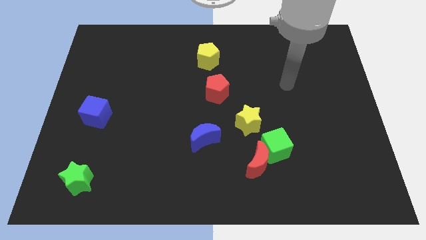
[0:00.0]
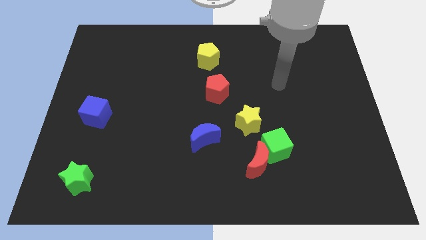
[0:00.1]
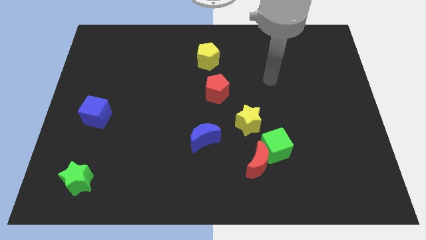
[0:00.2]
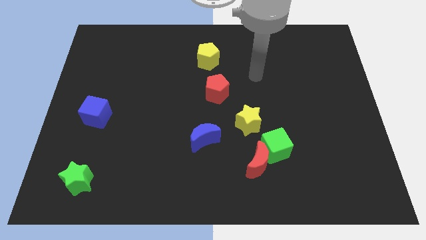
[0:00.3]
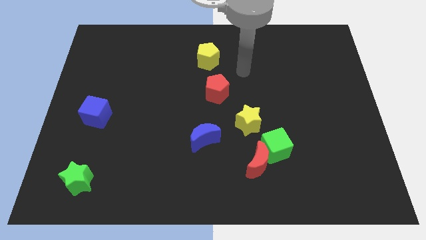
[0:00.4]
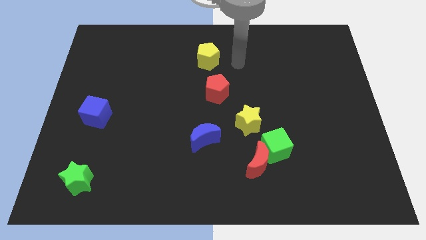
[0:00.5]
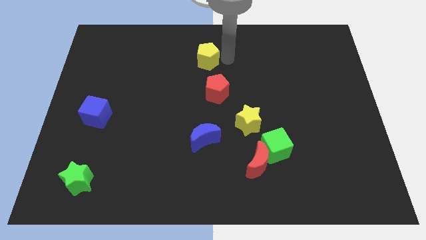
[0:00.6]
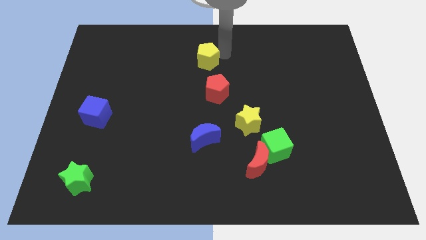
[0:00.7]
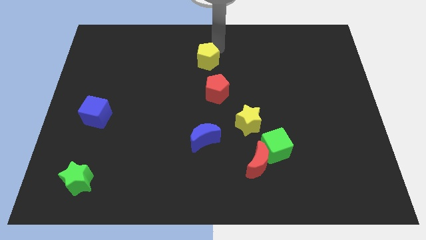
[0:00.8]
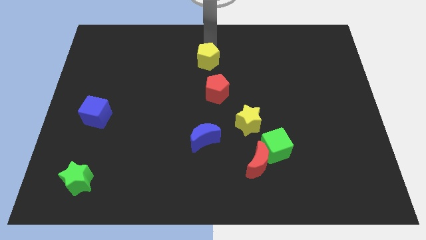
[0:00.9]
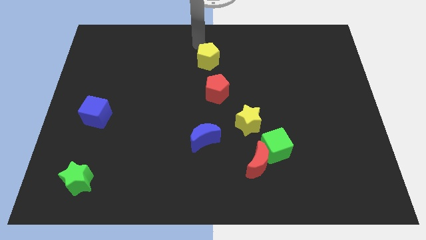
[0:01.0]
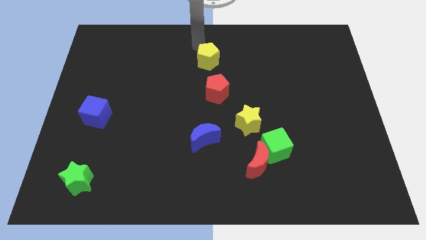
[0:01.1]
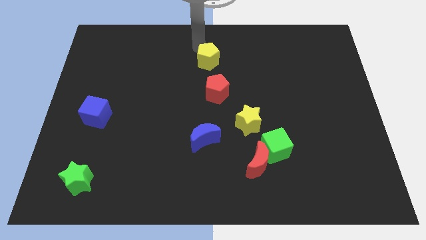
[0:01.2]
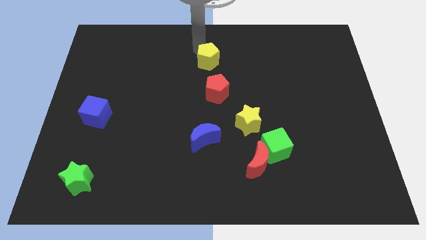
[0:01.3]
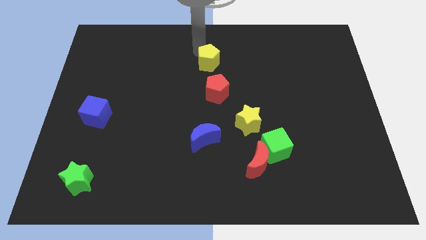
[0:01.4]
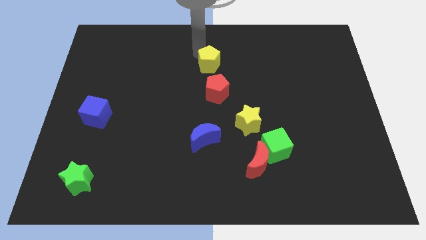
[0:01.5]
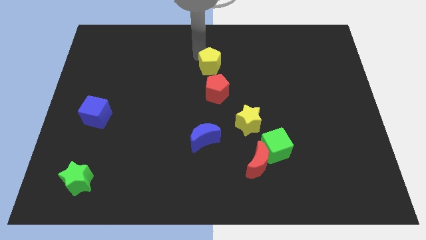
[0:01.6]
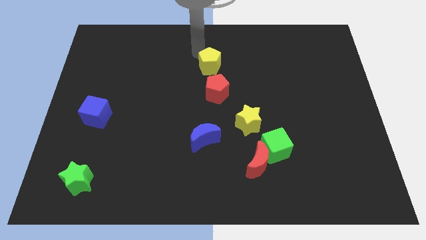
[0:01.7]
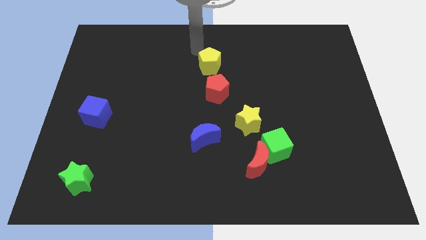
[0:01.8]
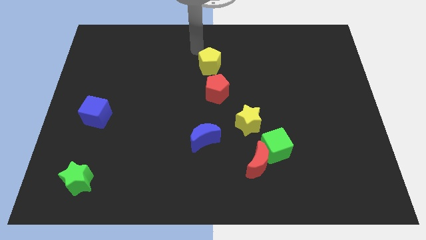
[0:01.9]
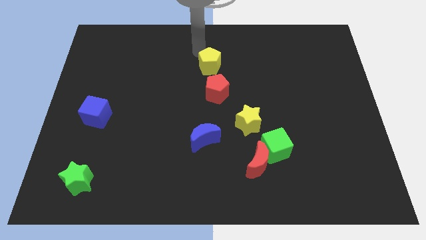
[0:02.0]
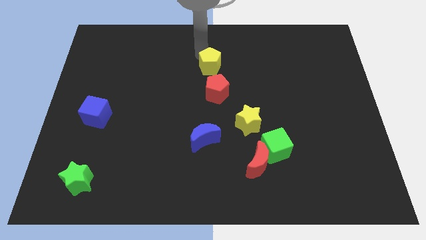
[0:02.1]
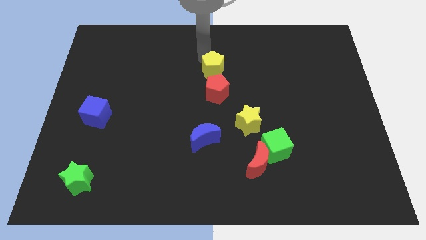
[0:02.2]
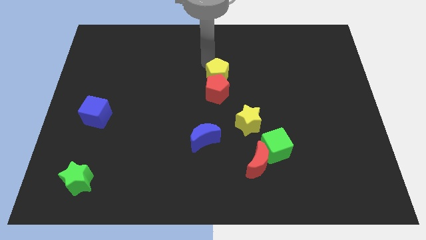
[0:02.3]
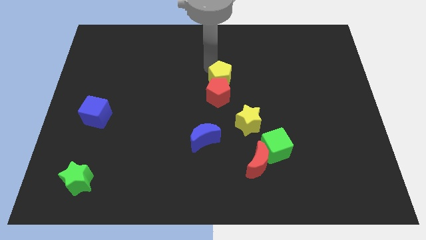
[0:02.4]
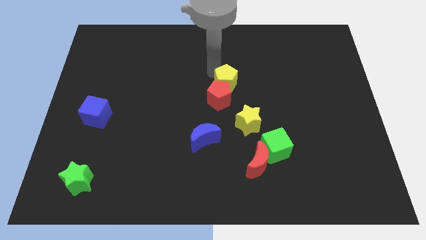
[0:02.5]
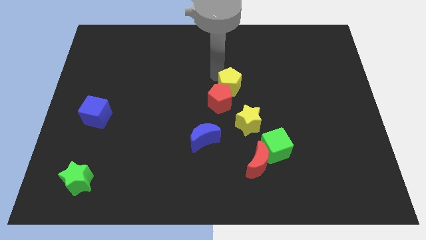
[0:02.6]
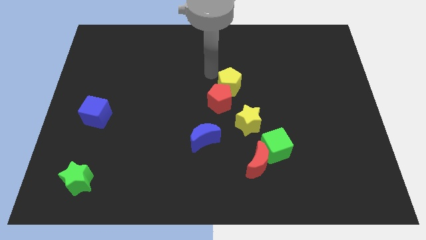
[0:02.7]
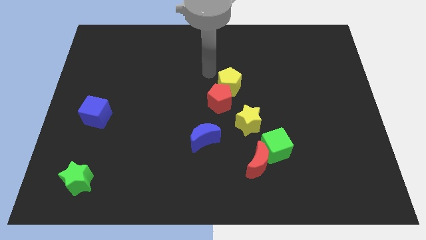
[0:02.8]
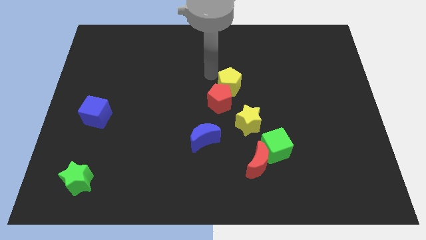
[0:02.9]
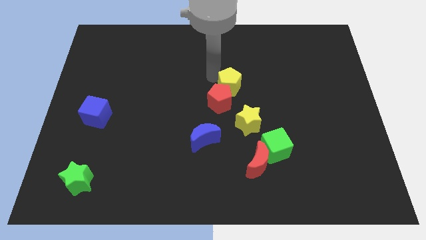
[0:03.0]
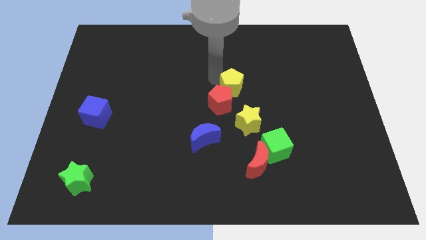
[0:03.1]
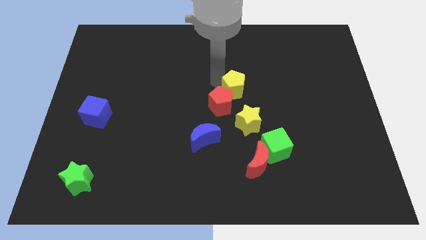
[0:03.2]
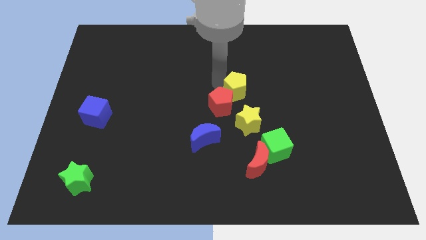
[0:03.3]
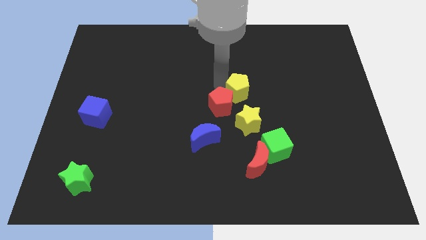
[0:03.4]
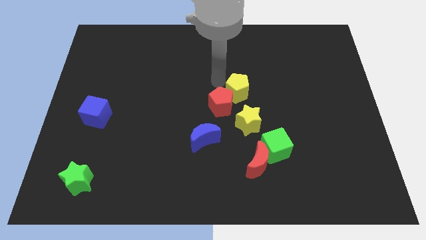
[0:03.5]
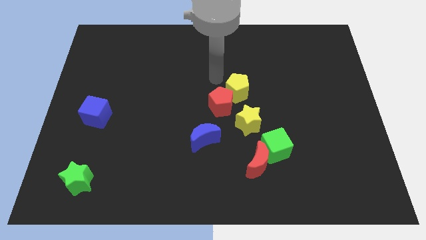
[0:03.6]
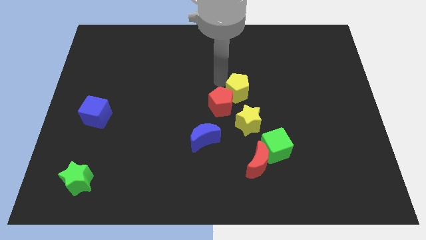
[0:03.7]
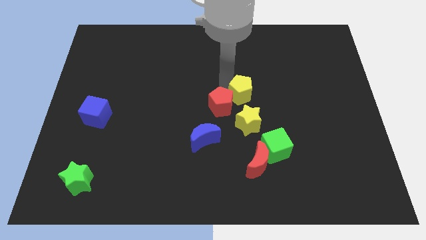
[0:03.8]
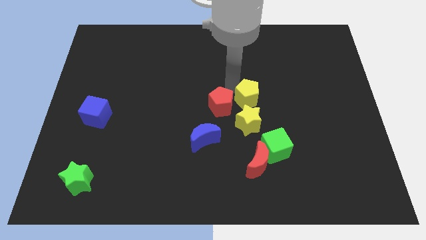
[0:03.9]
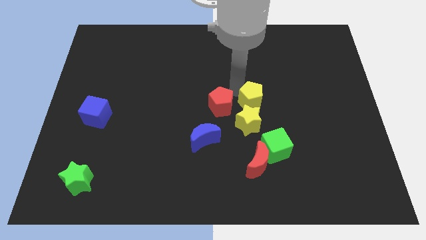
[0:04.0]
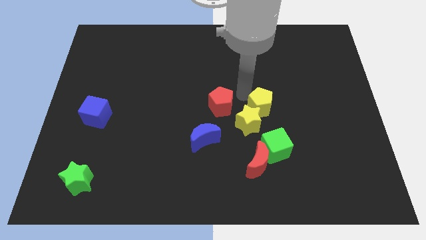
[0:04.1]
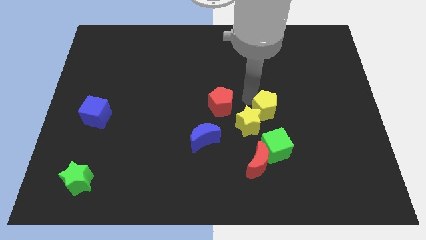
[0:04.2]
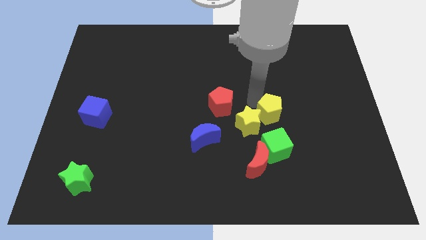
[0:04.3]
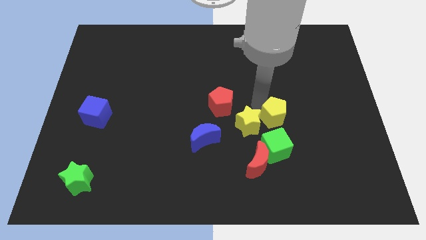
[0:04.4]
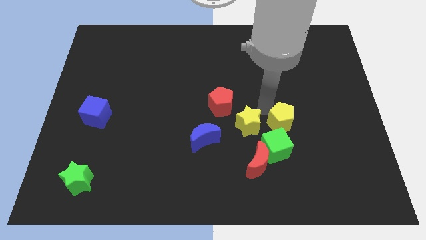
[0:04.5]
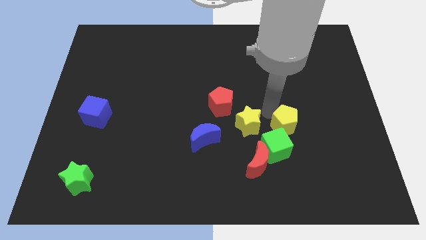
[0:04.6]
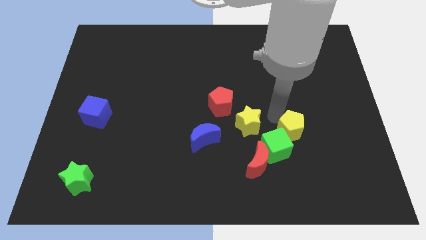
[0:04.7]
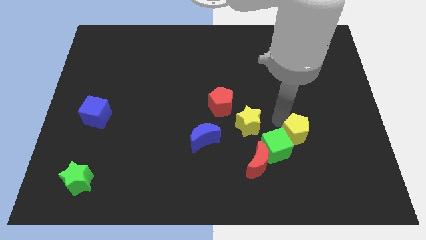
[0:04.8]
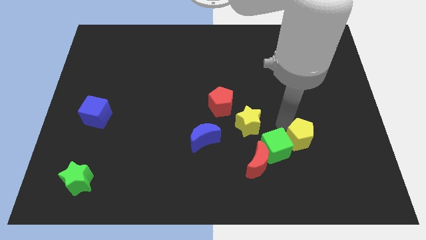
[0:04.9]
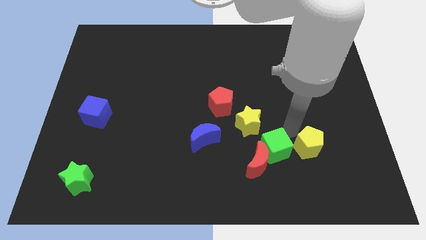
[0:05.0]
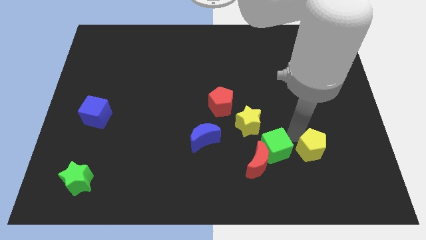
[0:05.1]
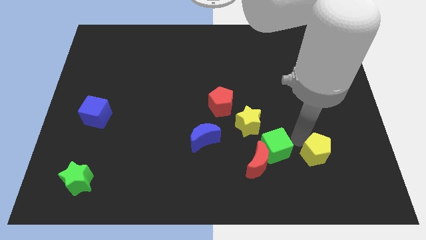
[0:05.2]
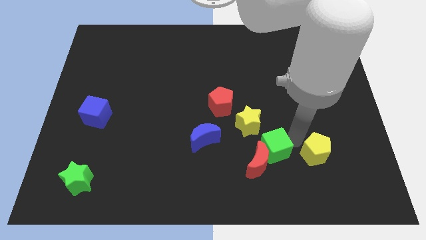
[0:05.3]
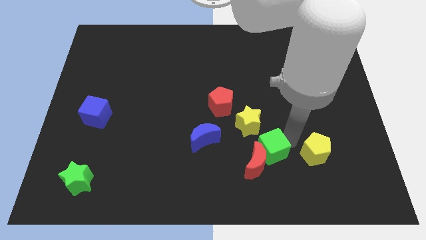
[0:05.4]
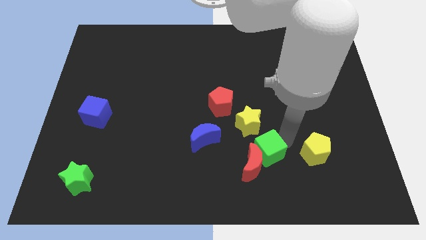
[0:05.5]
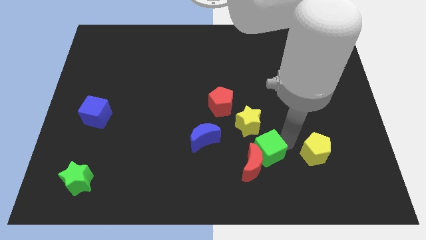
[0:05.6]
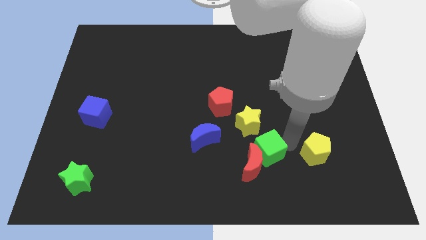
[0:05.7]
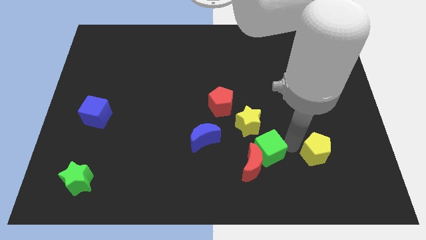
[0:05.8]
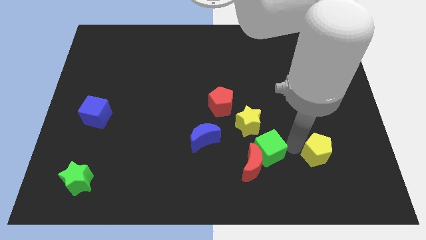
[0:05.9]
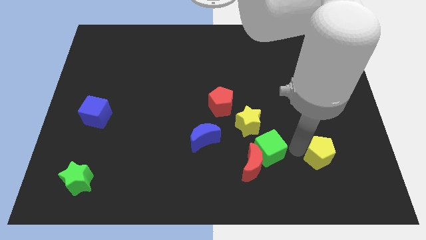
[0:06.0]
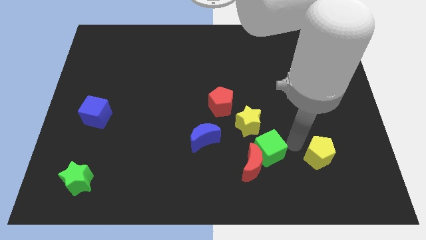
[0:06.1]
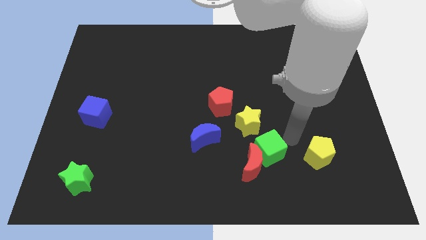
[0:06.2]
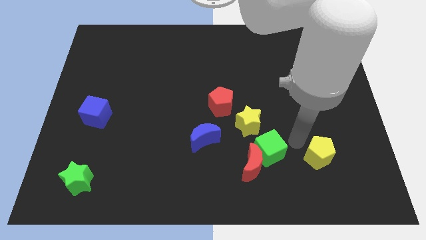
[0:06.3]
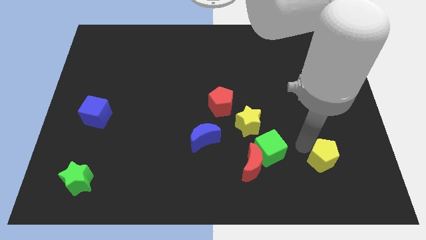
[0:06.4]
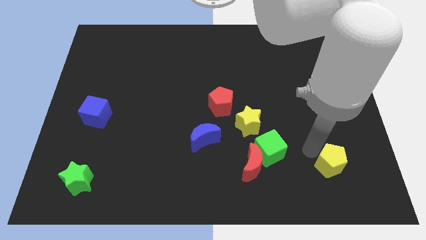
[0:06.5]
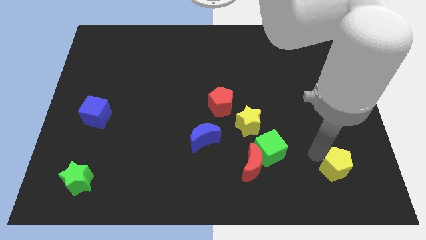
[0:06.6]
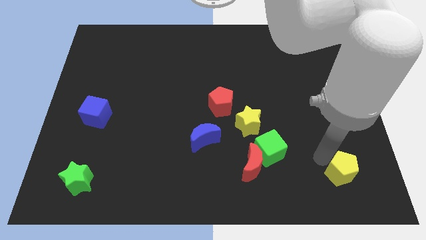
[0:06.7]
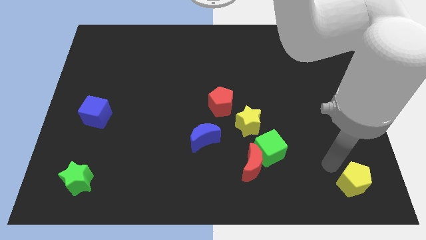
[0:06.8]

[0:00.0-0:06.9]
push the yellow pentagon to the lower right corner
